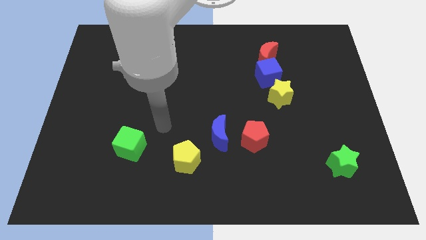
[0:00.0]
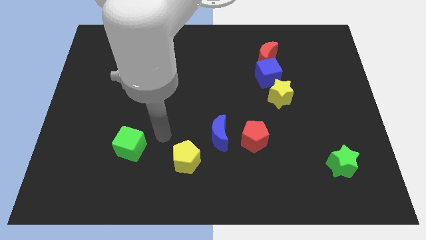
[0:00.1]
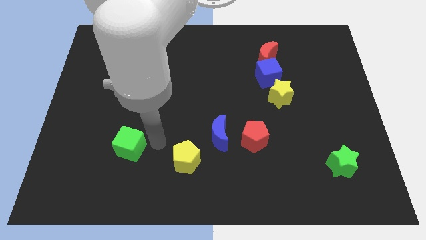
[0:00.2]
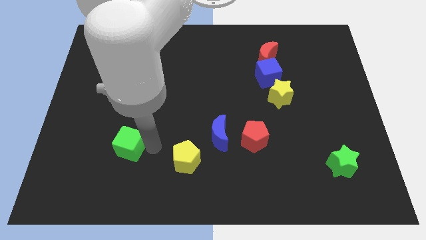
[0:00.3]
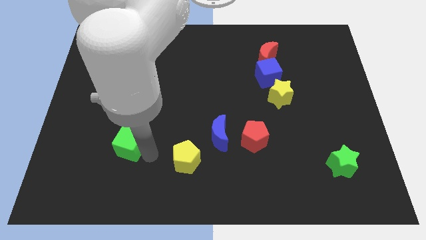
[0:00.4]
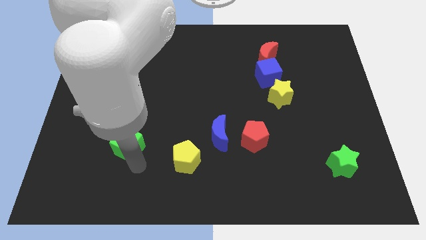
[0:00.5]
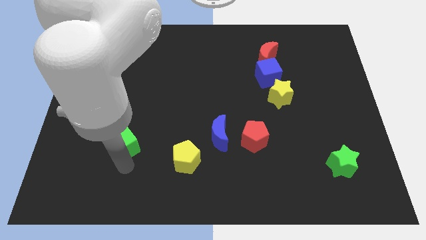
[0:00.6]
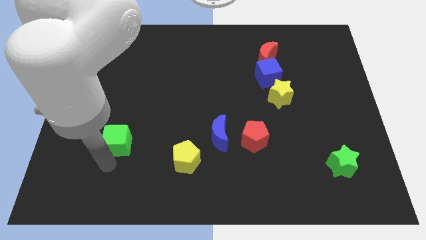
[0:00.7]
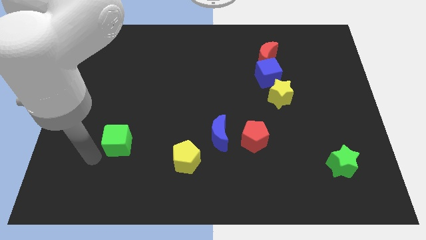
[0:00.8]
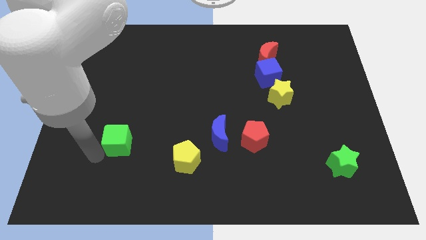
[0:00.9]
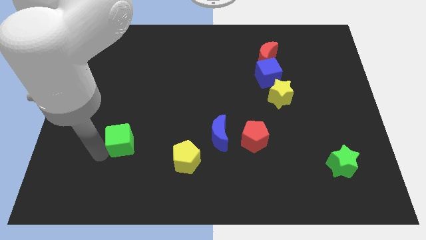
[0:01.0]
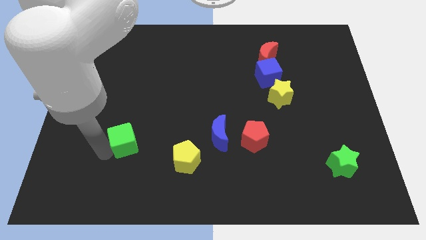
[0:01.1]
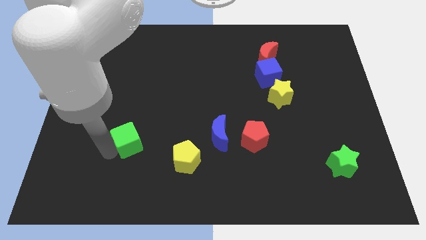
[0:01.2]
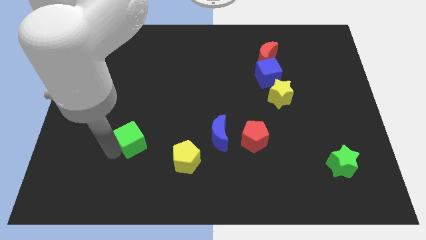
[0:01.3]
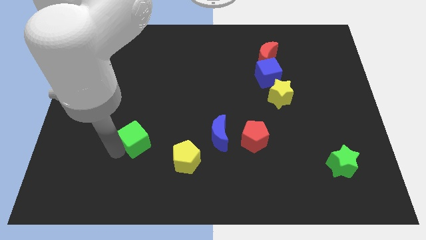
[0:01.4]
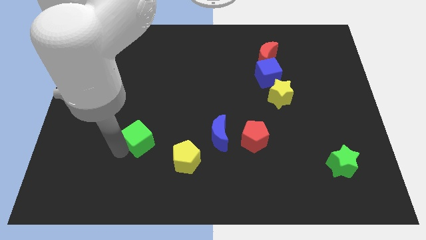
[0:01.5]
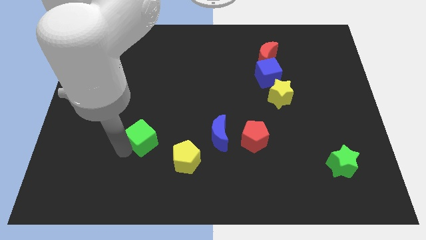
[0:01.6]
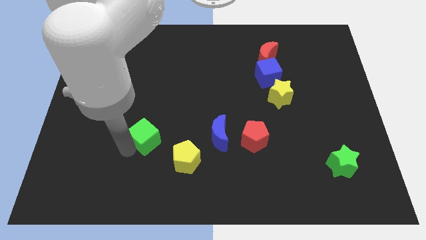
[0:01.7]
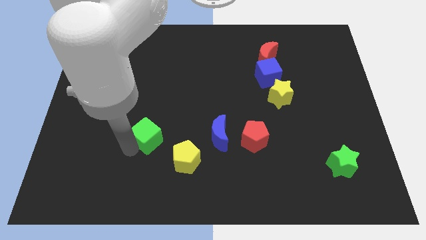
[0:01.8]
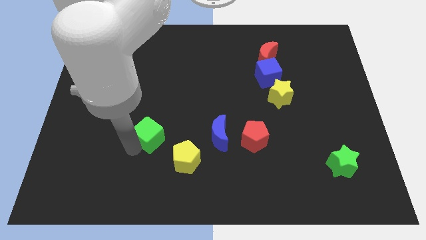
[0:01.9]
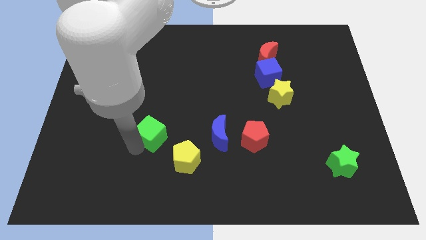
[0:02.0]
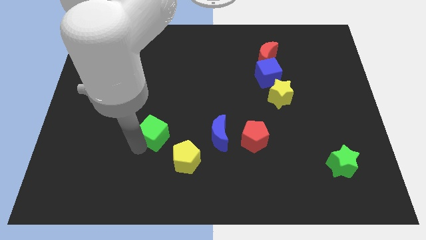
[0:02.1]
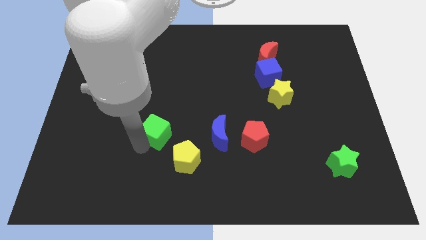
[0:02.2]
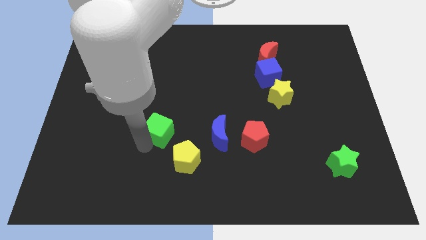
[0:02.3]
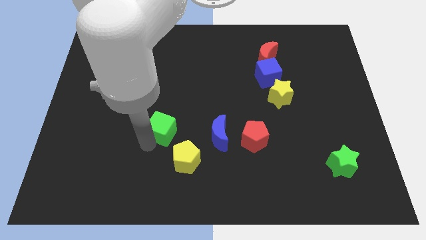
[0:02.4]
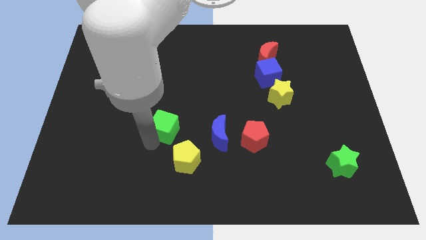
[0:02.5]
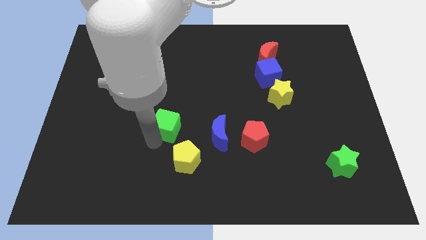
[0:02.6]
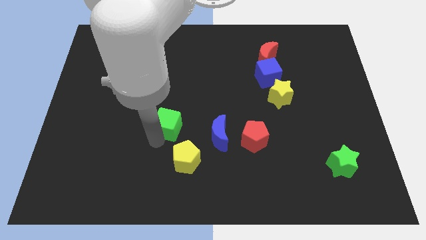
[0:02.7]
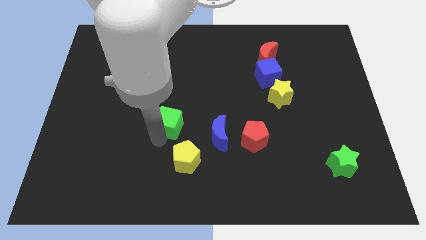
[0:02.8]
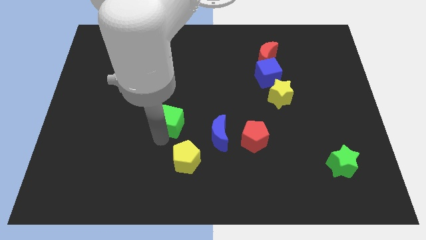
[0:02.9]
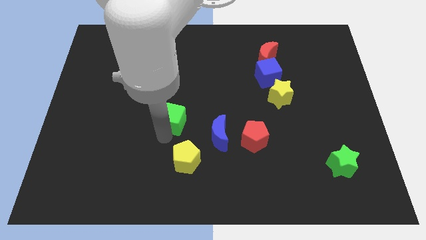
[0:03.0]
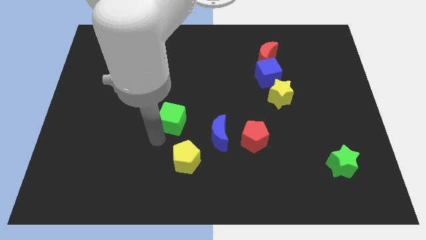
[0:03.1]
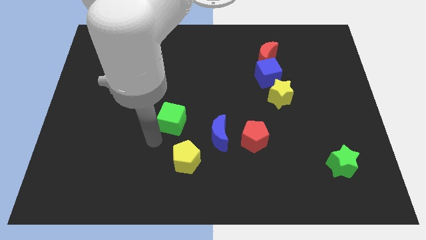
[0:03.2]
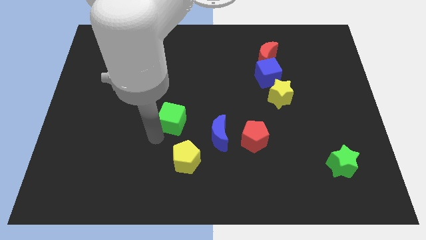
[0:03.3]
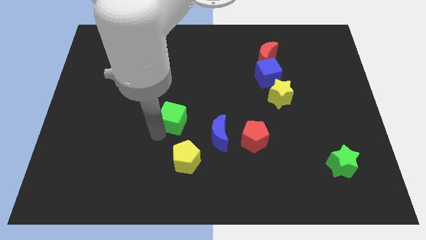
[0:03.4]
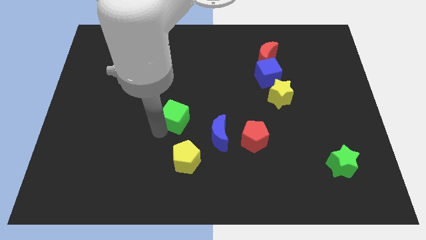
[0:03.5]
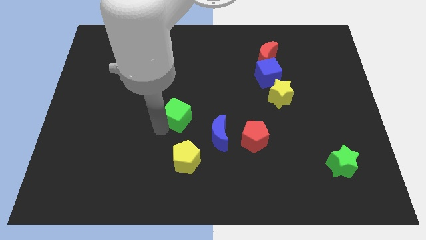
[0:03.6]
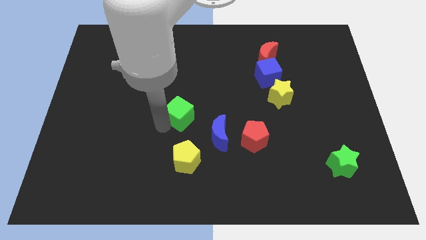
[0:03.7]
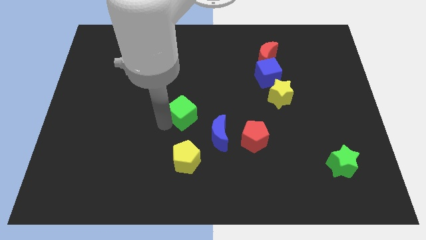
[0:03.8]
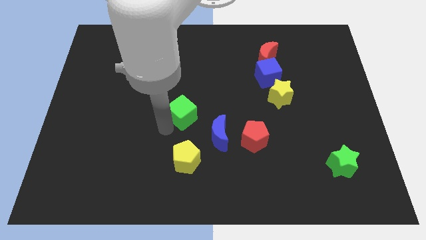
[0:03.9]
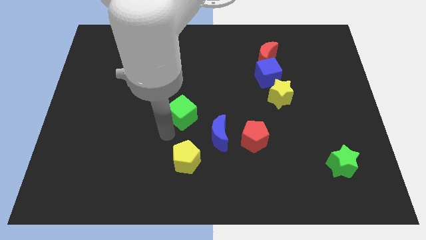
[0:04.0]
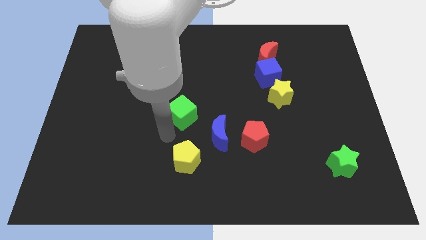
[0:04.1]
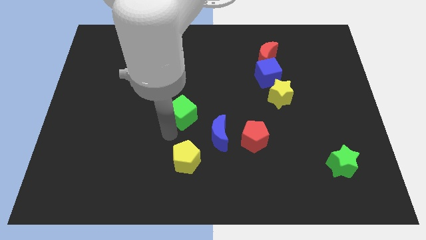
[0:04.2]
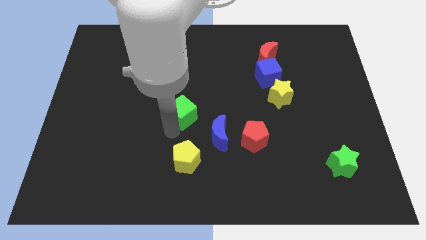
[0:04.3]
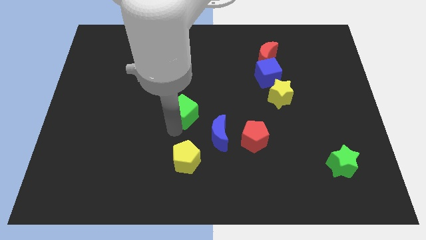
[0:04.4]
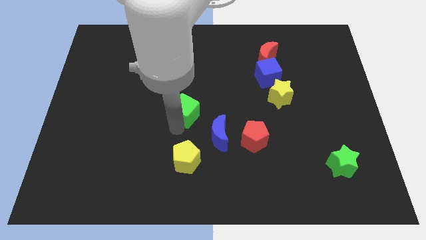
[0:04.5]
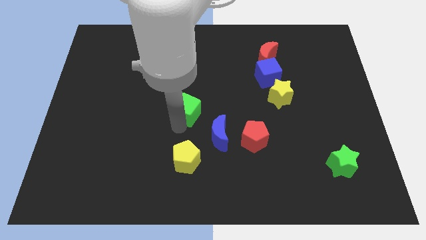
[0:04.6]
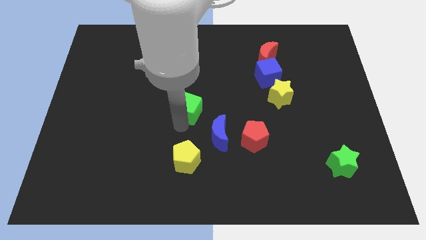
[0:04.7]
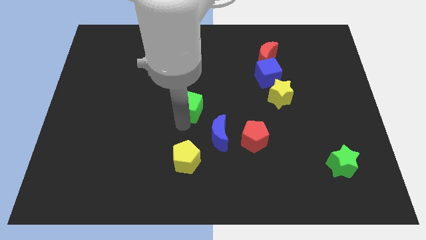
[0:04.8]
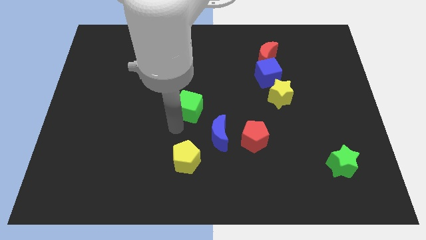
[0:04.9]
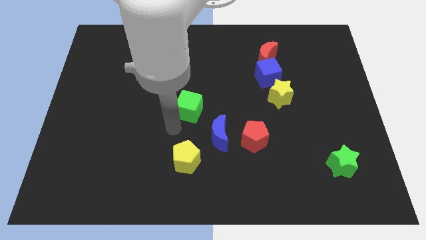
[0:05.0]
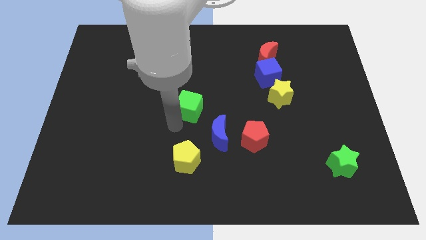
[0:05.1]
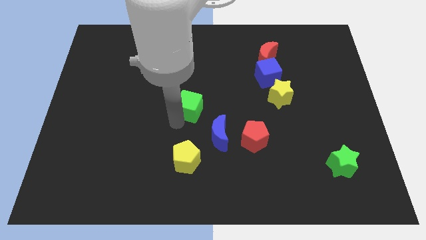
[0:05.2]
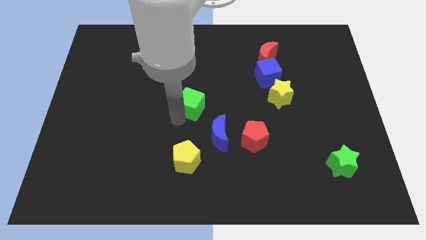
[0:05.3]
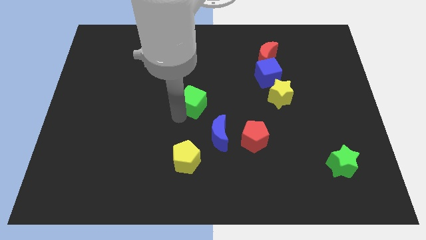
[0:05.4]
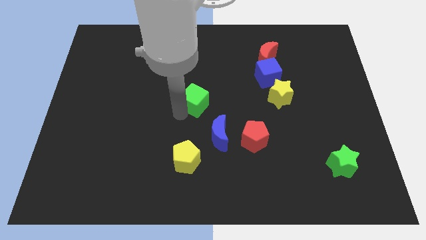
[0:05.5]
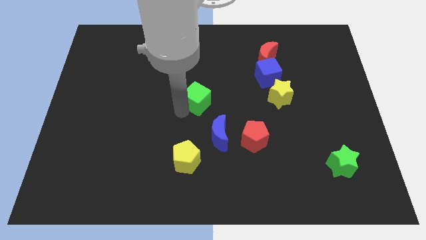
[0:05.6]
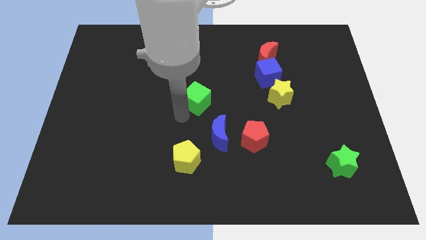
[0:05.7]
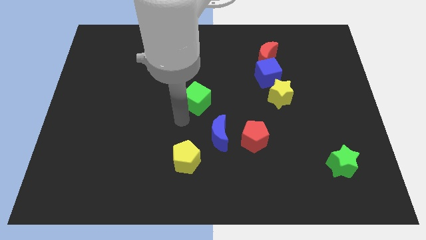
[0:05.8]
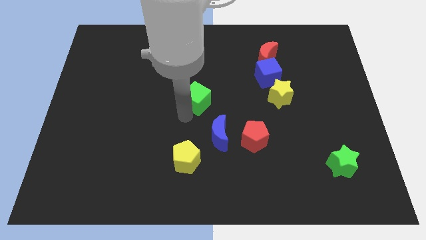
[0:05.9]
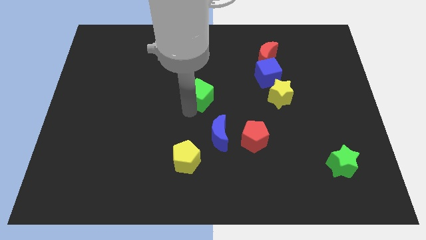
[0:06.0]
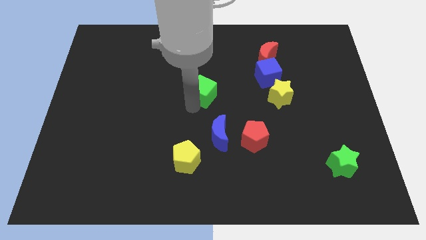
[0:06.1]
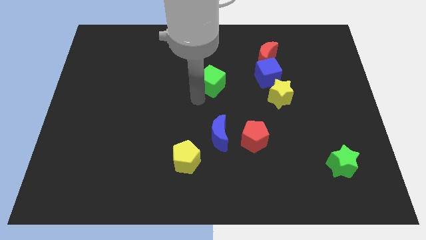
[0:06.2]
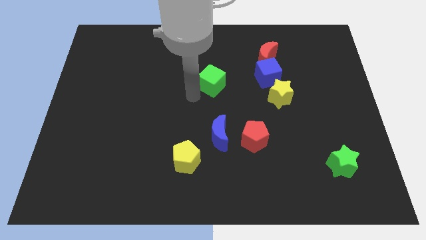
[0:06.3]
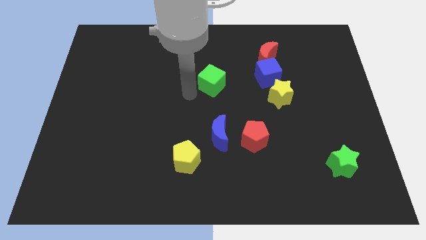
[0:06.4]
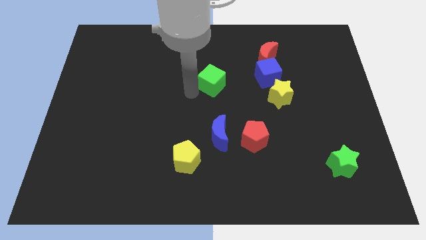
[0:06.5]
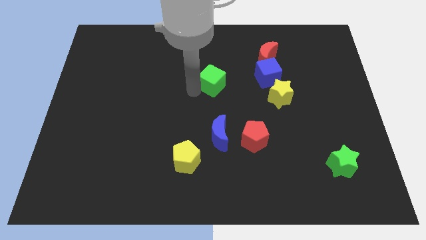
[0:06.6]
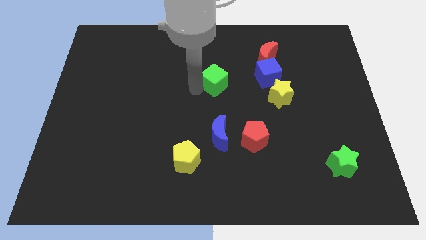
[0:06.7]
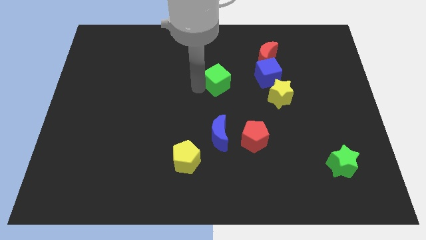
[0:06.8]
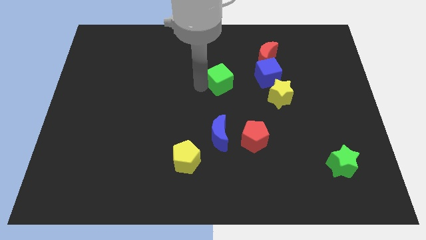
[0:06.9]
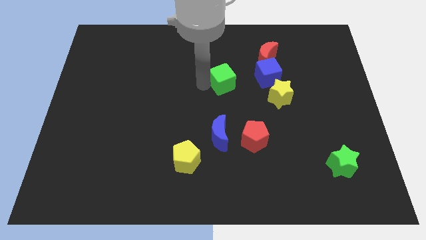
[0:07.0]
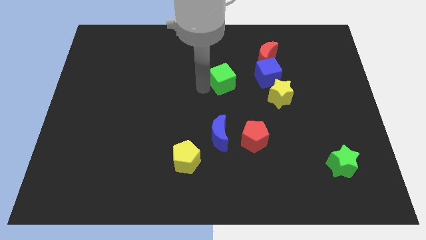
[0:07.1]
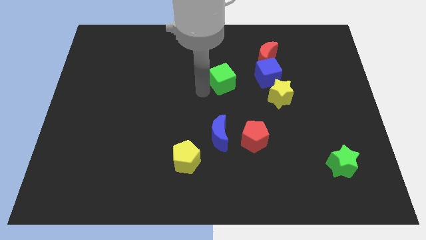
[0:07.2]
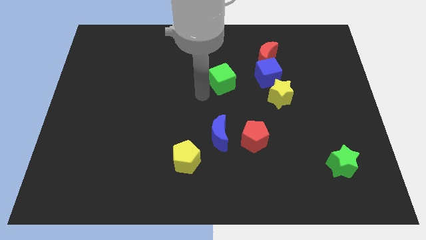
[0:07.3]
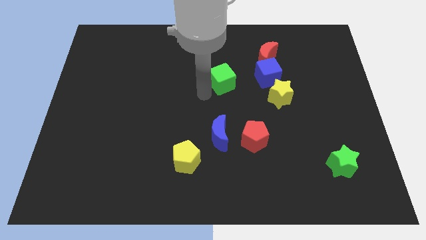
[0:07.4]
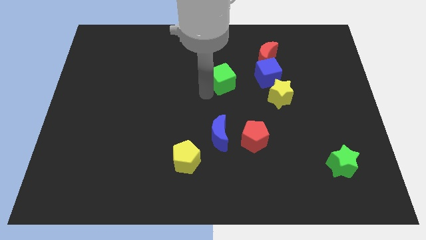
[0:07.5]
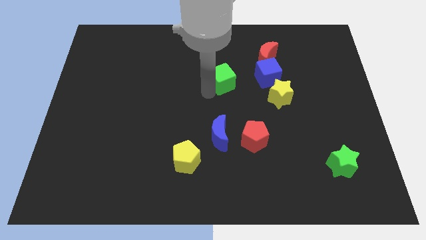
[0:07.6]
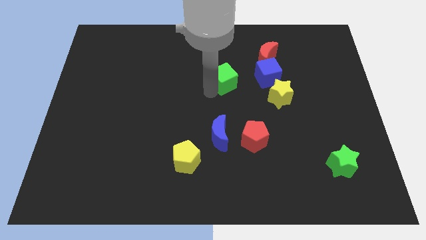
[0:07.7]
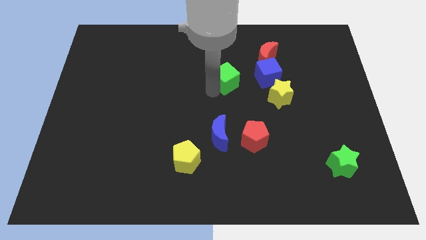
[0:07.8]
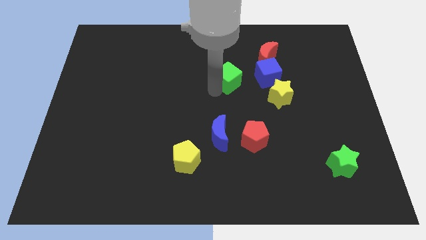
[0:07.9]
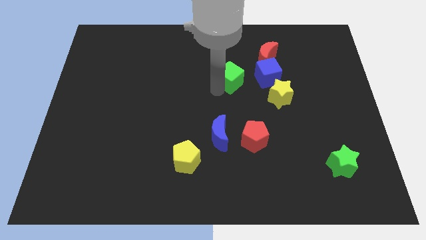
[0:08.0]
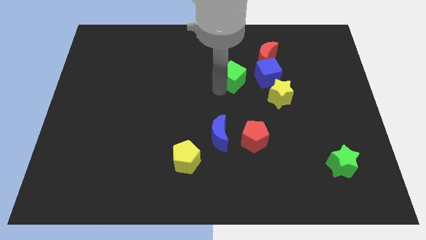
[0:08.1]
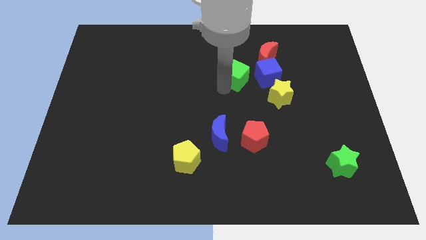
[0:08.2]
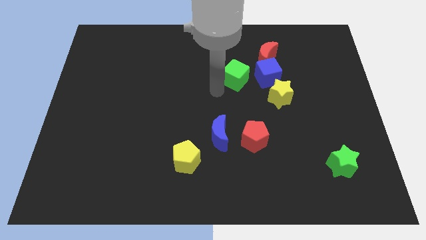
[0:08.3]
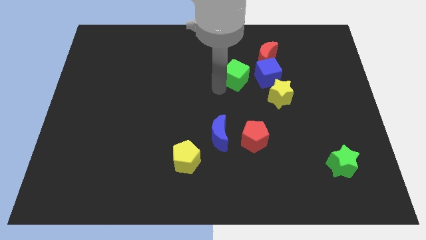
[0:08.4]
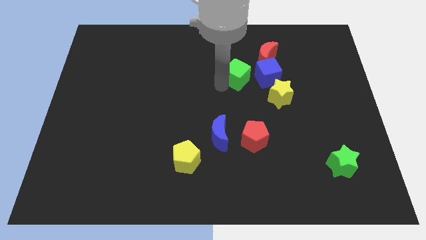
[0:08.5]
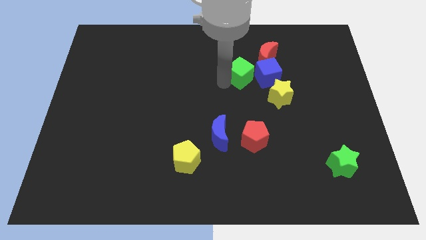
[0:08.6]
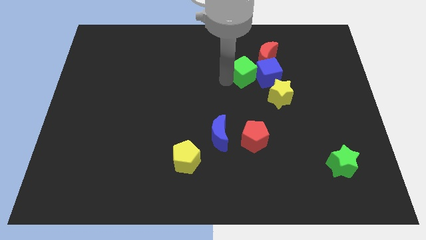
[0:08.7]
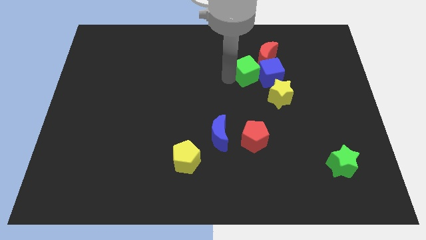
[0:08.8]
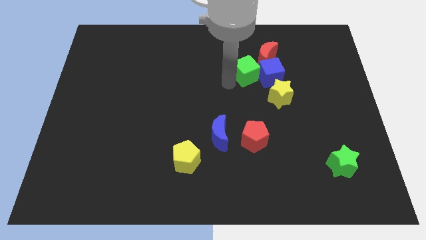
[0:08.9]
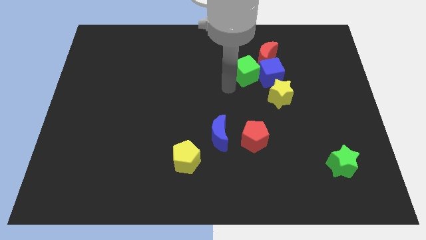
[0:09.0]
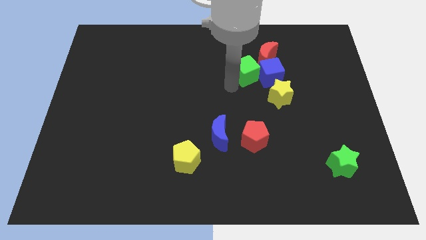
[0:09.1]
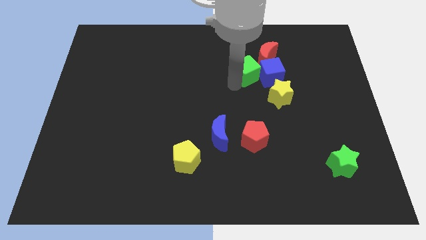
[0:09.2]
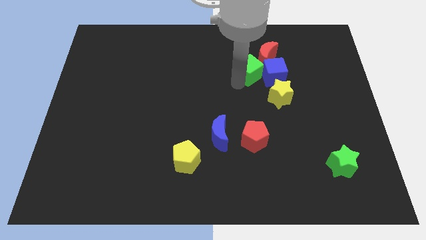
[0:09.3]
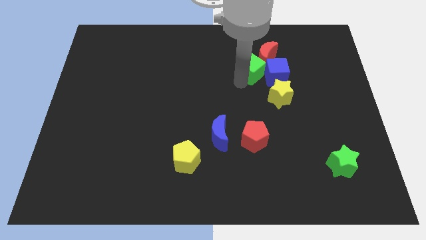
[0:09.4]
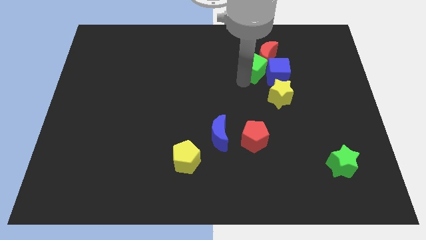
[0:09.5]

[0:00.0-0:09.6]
slide the green cube close to the red moon
